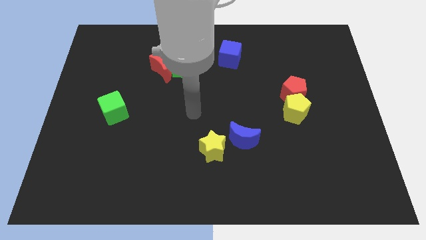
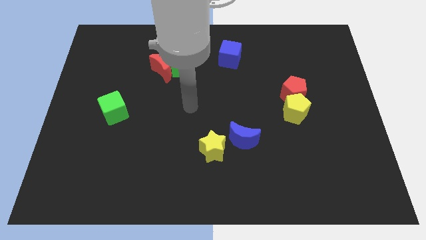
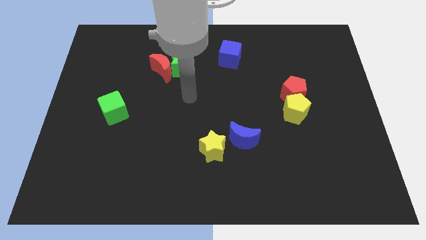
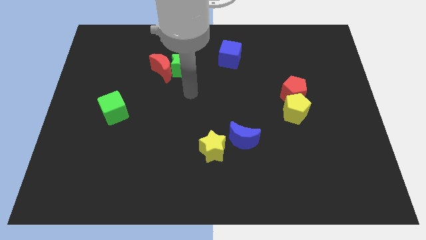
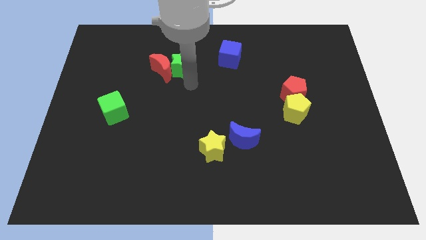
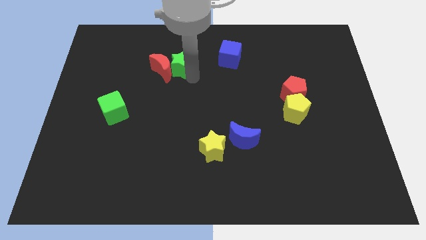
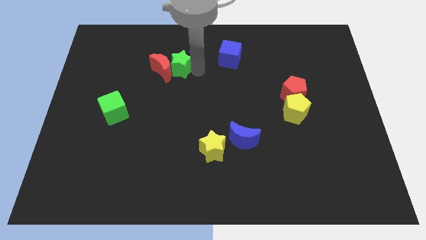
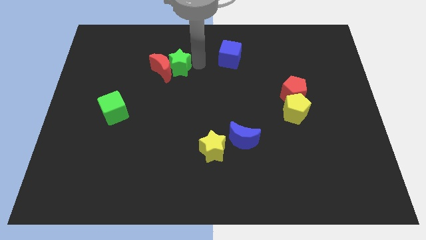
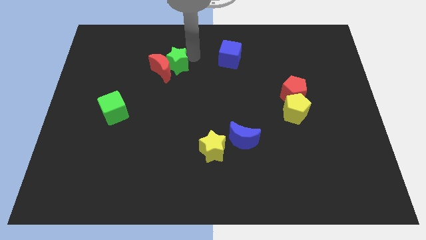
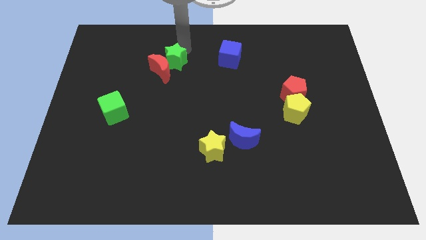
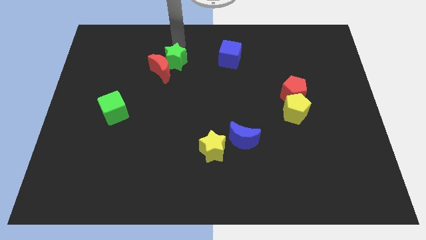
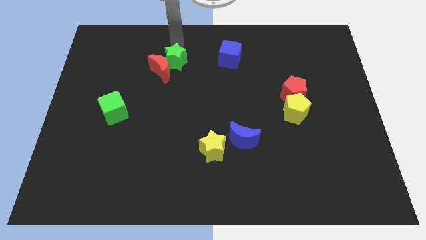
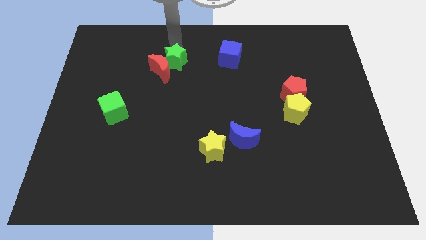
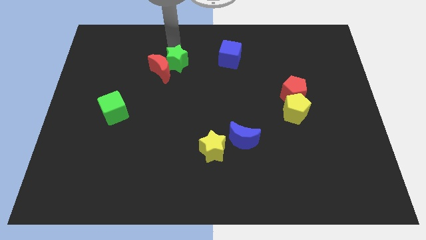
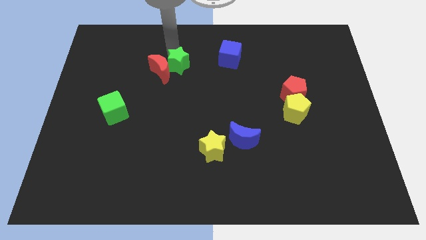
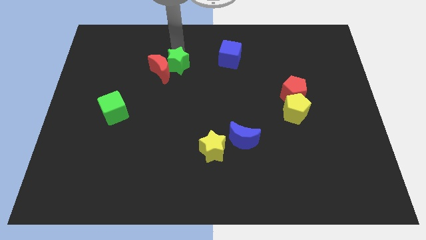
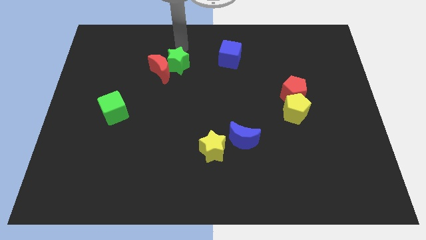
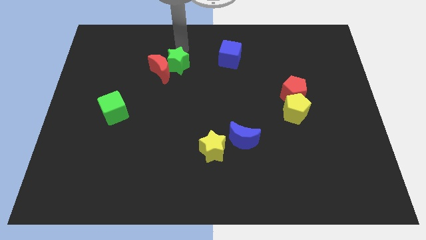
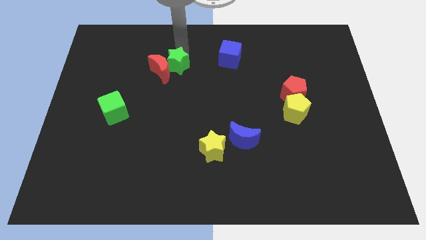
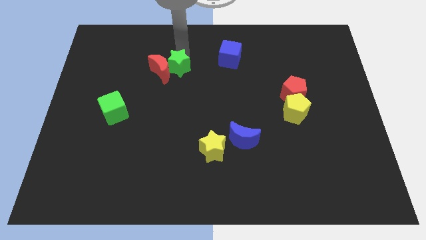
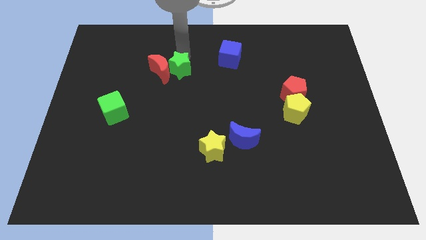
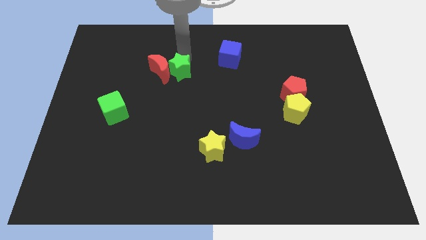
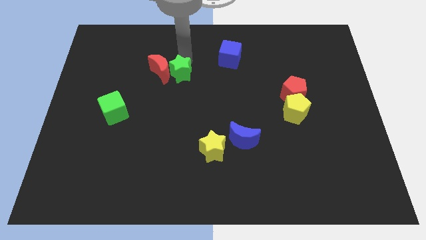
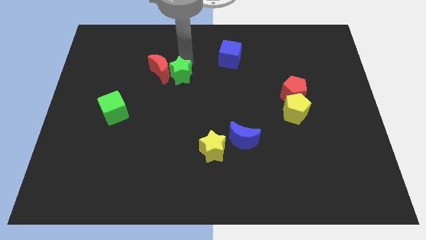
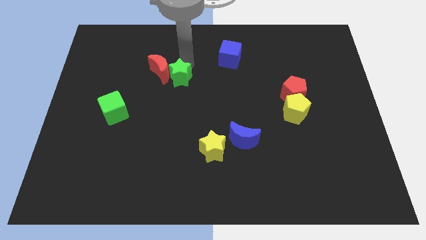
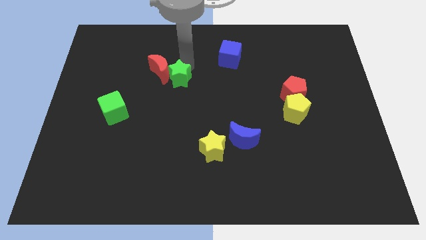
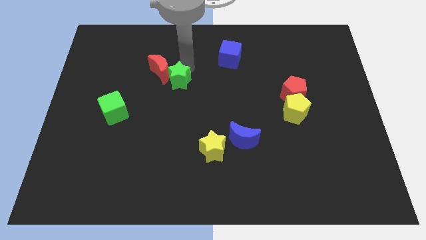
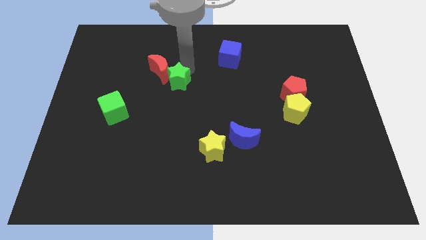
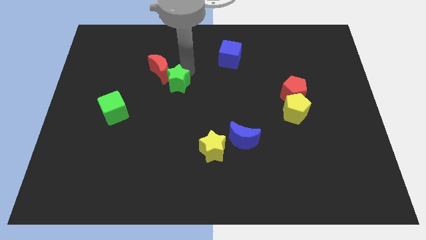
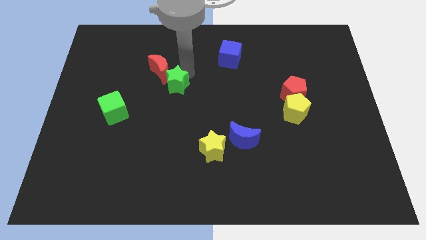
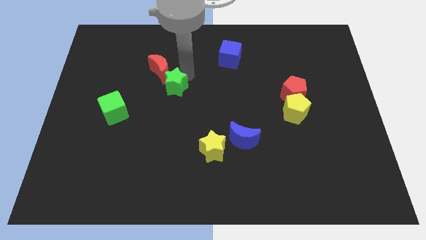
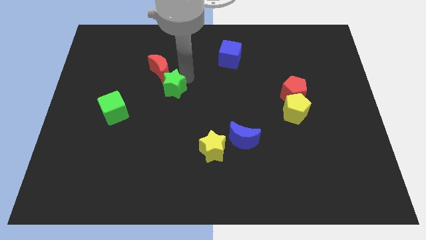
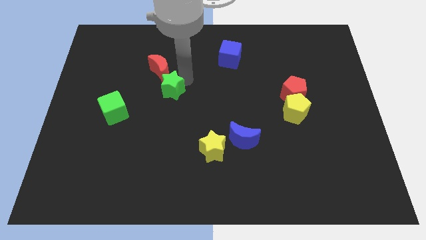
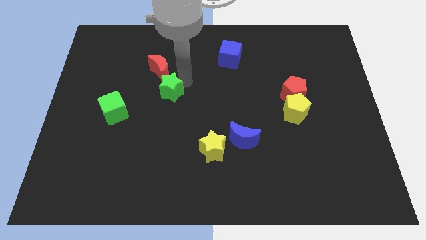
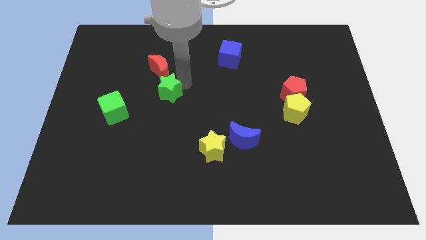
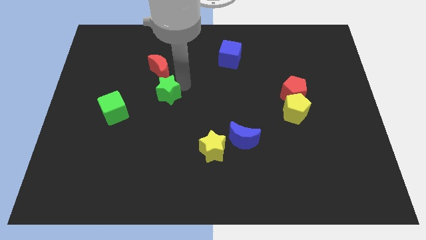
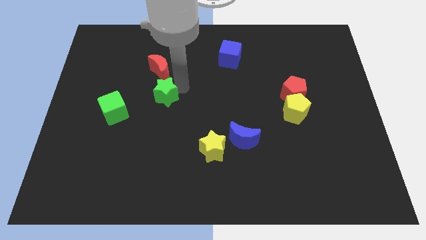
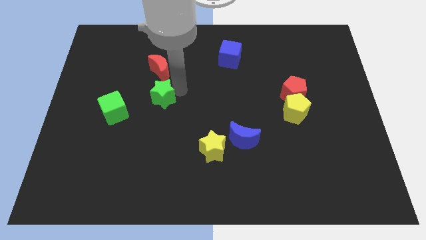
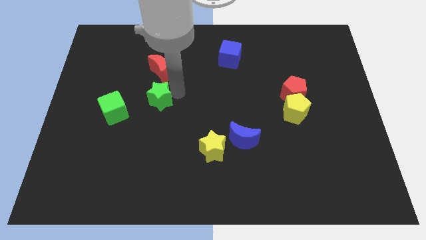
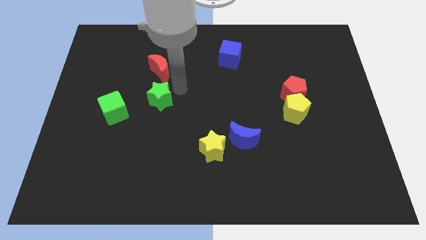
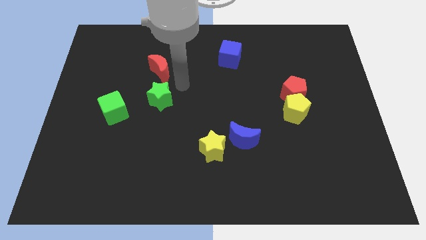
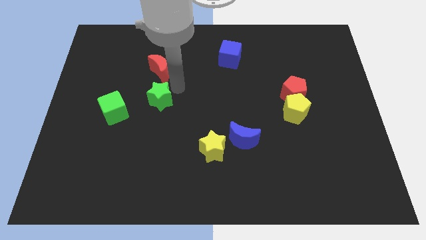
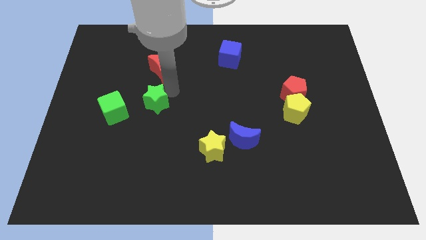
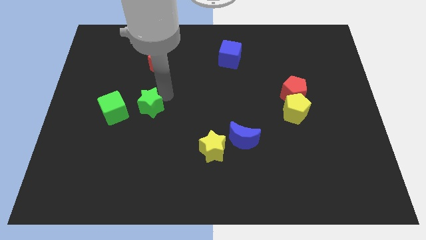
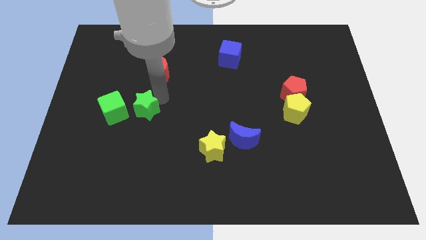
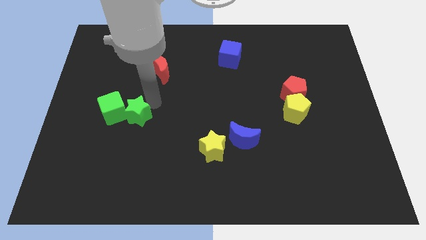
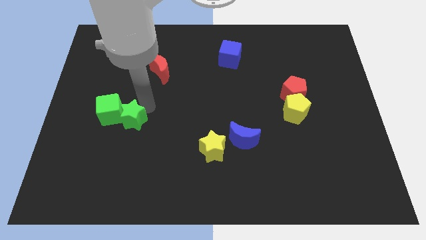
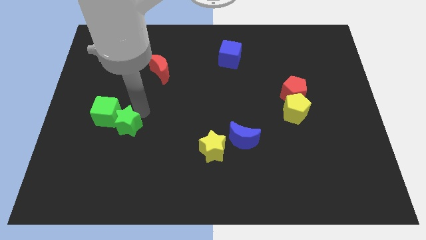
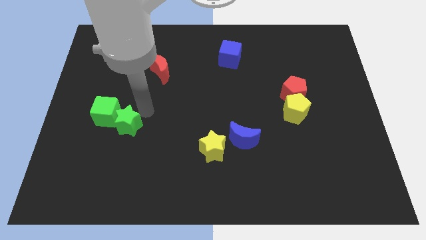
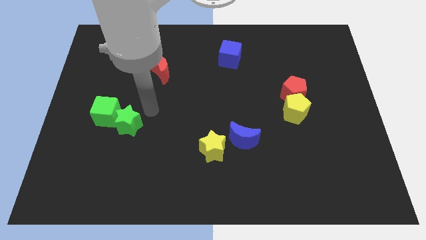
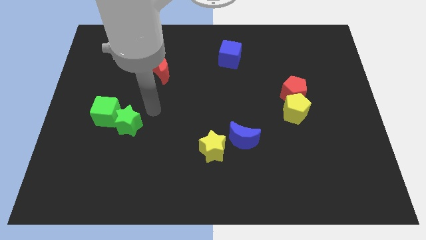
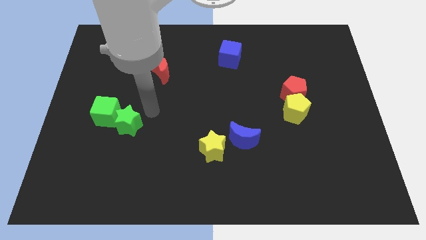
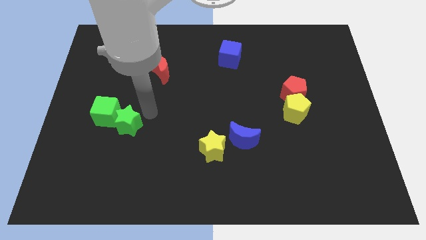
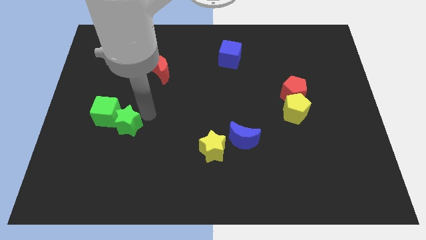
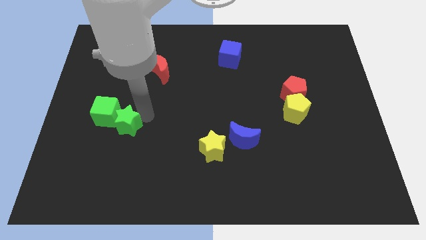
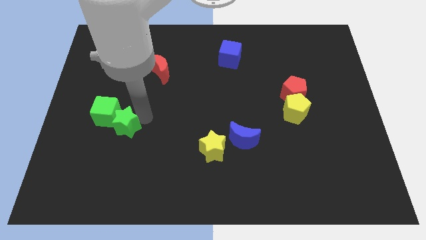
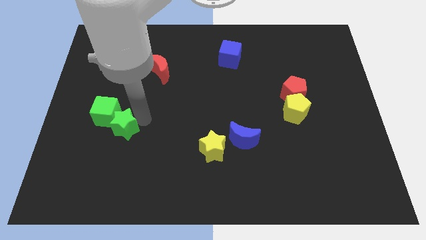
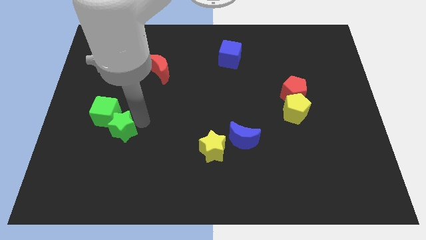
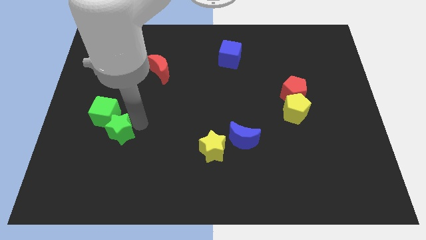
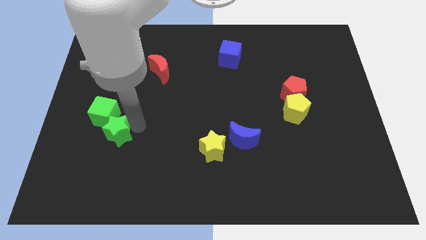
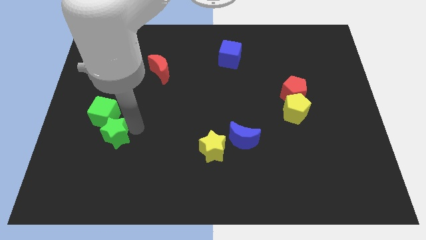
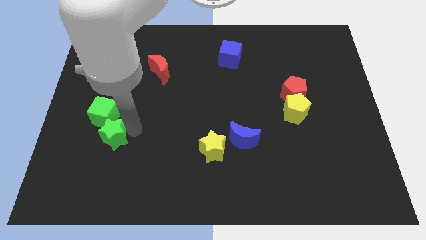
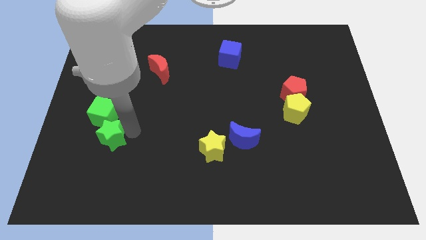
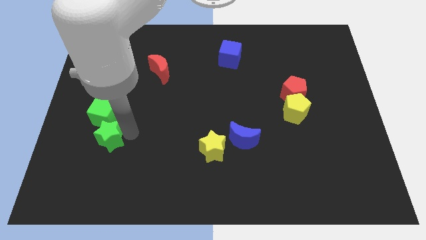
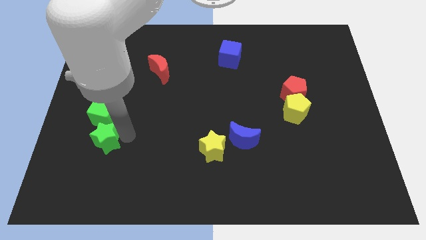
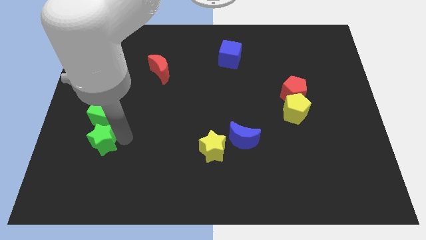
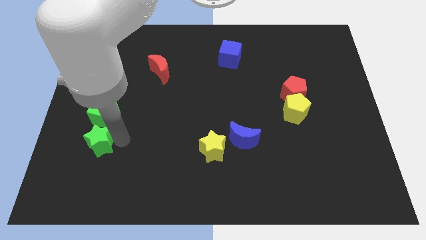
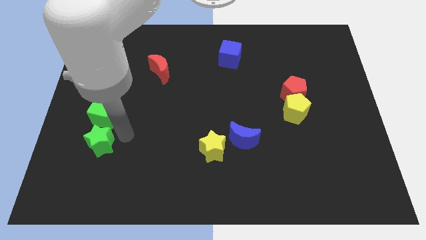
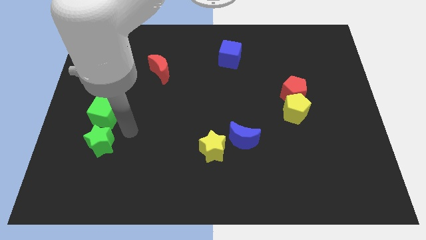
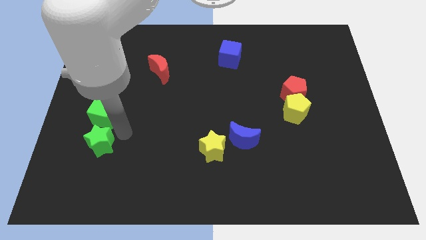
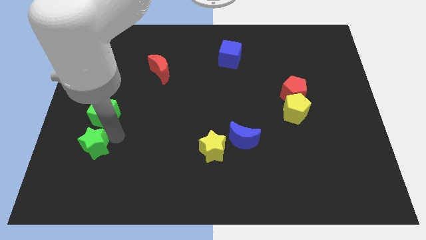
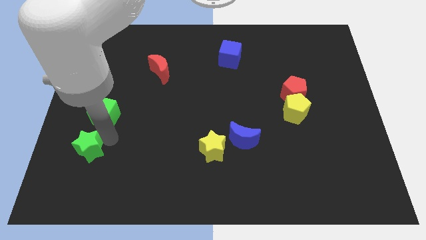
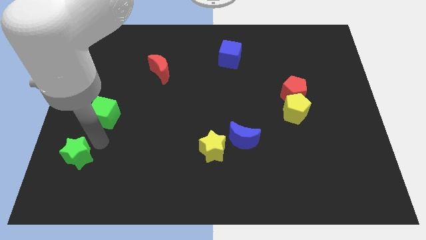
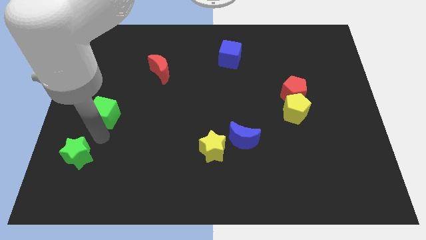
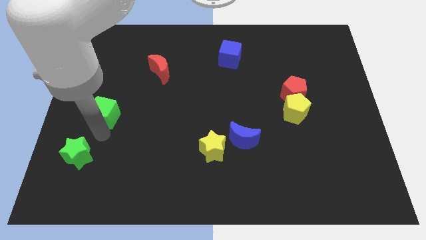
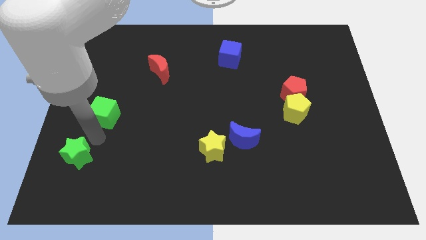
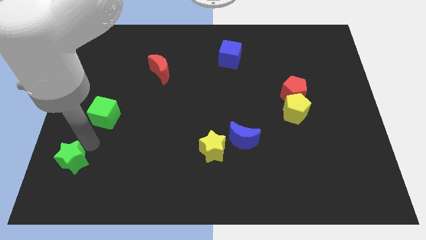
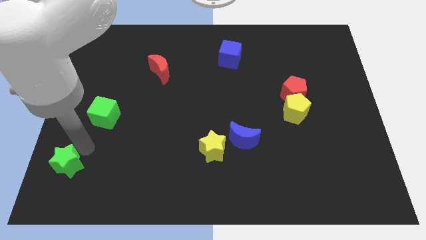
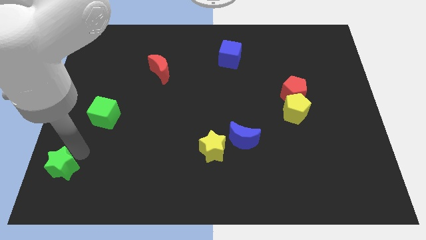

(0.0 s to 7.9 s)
put the green star to the bottom left of the board
